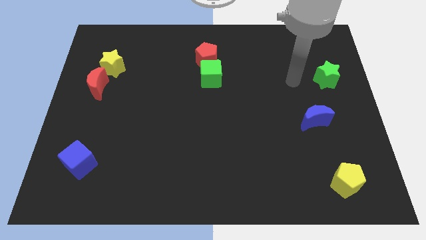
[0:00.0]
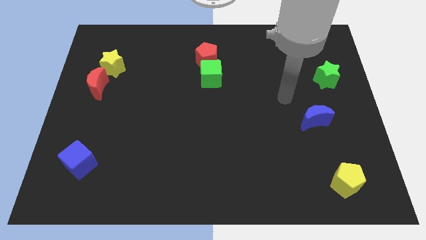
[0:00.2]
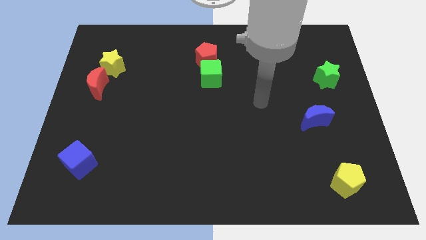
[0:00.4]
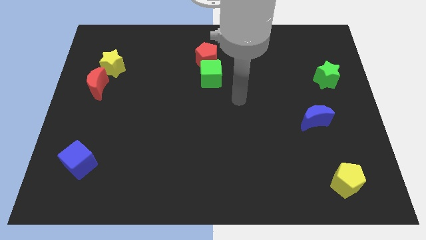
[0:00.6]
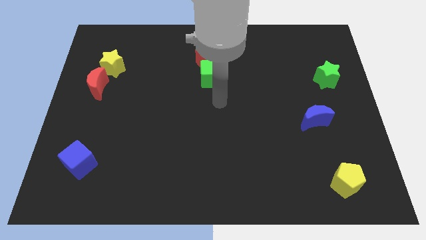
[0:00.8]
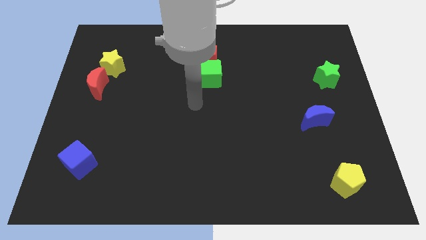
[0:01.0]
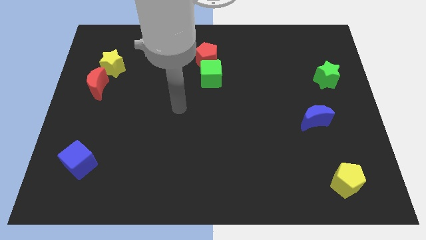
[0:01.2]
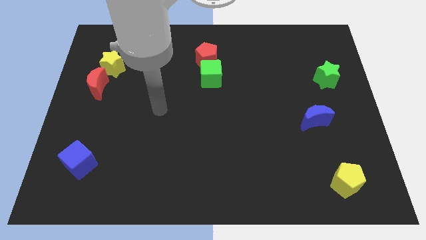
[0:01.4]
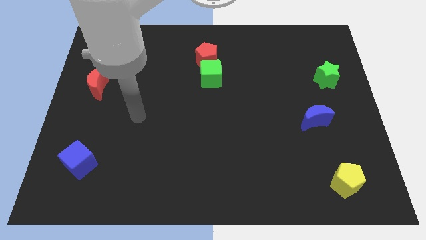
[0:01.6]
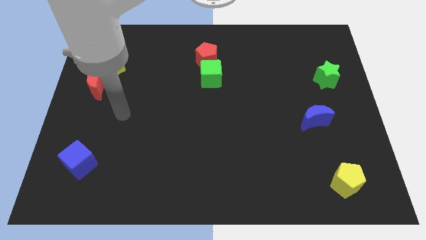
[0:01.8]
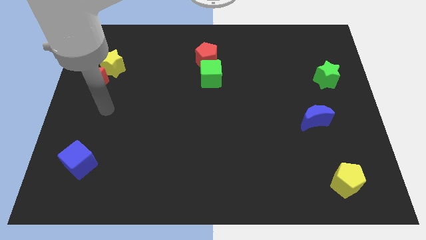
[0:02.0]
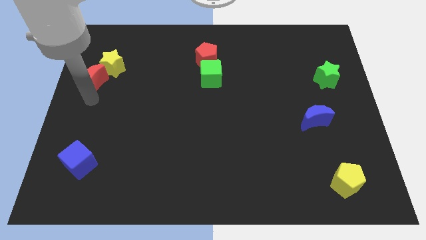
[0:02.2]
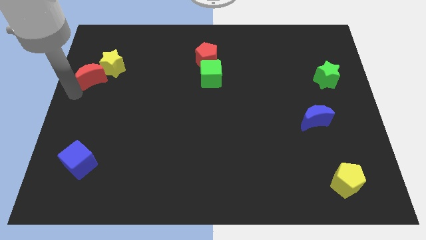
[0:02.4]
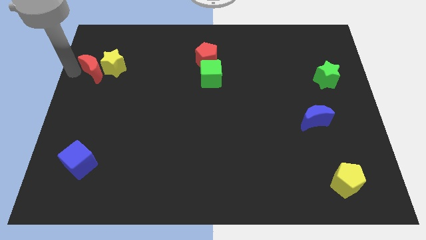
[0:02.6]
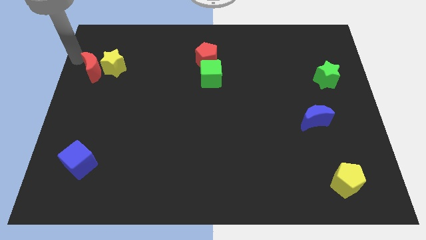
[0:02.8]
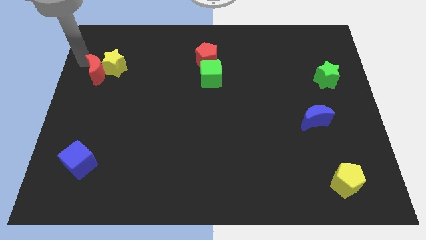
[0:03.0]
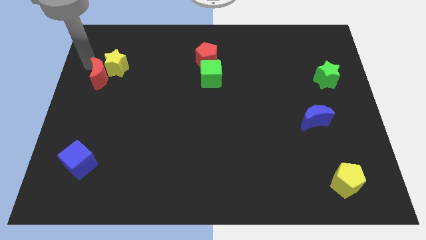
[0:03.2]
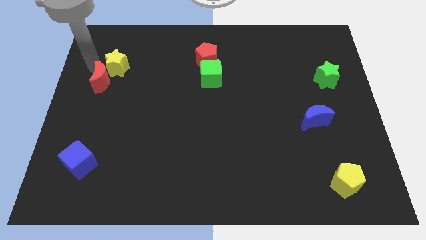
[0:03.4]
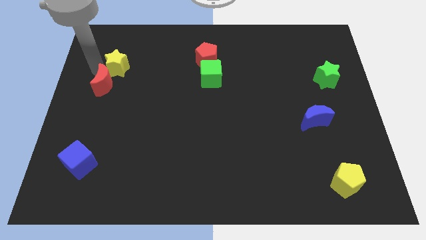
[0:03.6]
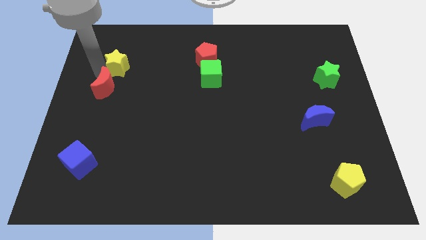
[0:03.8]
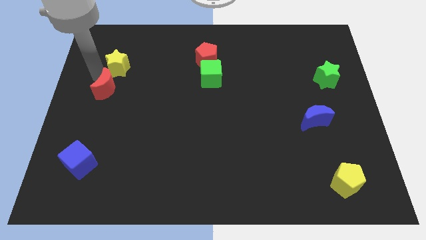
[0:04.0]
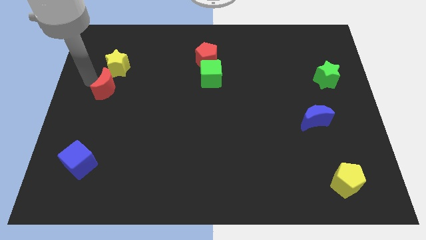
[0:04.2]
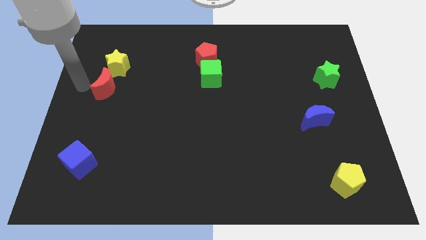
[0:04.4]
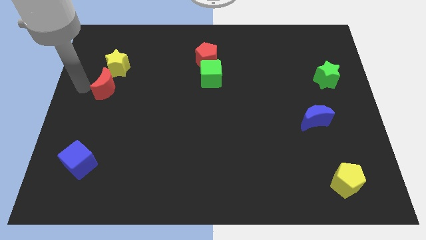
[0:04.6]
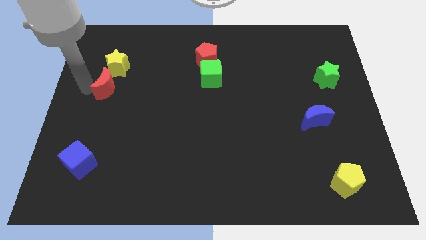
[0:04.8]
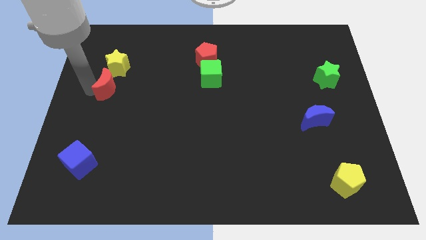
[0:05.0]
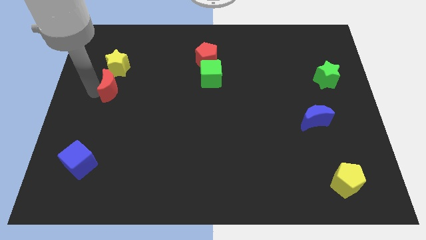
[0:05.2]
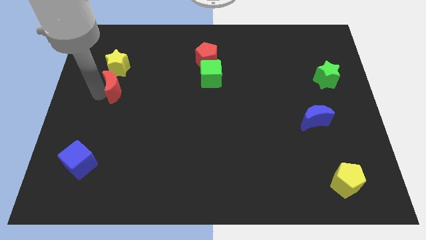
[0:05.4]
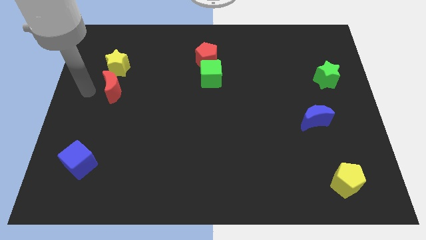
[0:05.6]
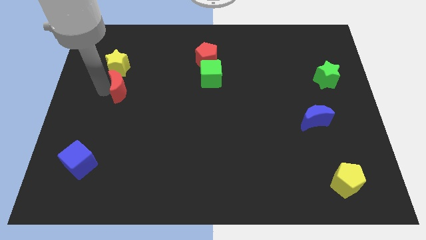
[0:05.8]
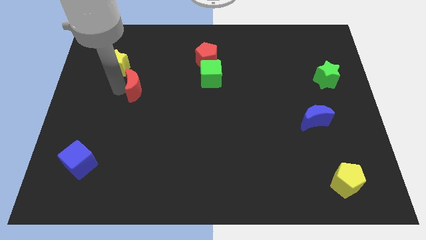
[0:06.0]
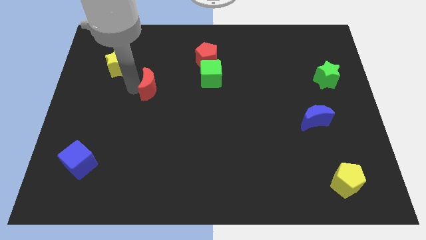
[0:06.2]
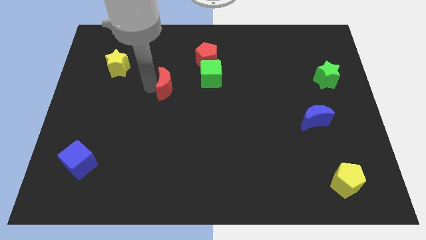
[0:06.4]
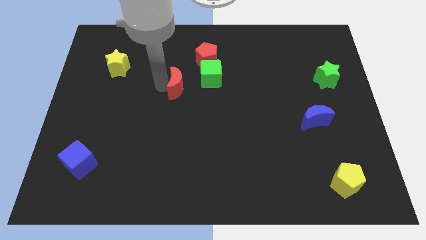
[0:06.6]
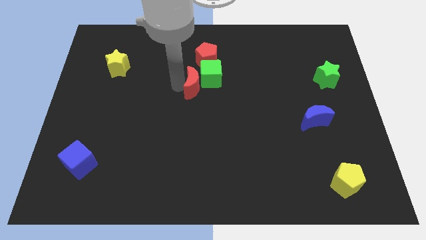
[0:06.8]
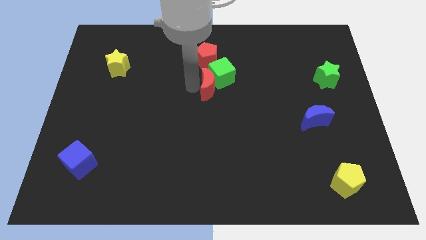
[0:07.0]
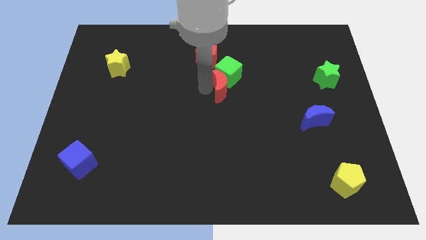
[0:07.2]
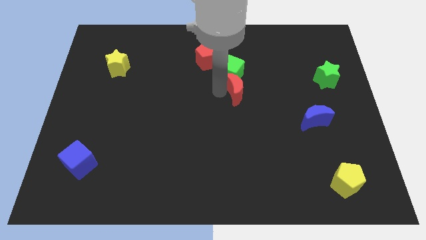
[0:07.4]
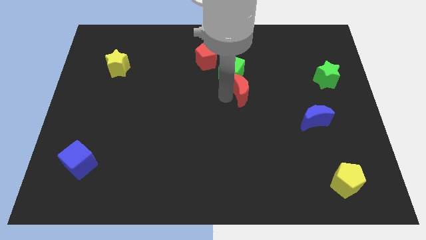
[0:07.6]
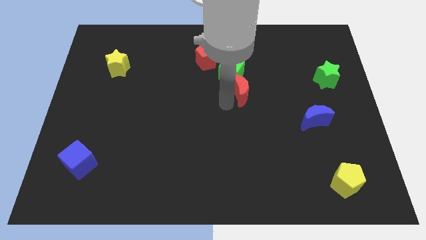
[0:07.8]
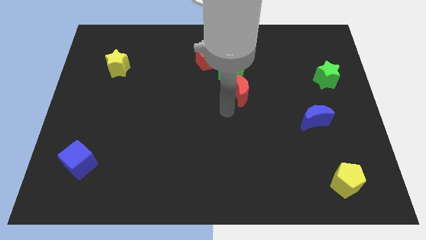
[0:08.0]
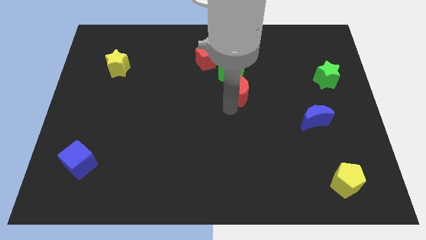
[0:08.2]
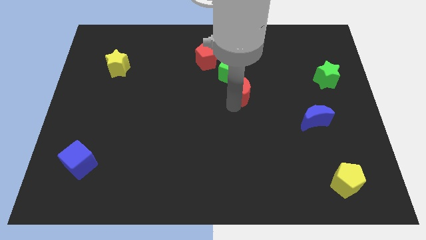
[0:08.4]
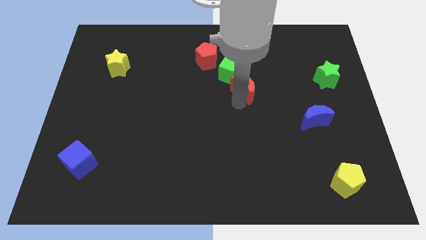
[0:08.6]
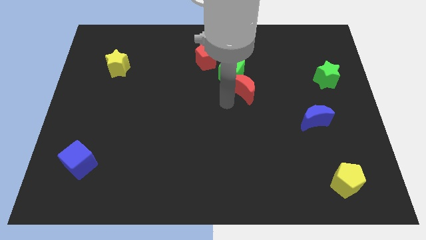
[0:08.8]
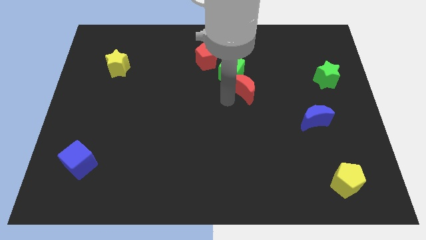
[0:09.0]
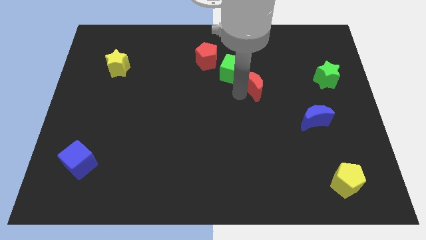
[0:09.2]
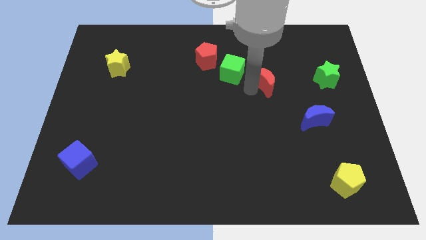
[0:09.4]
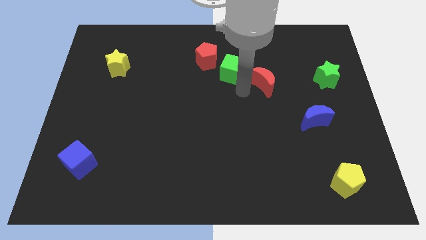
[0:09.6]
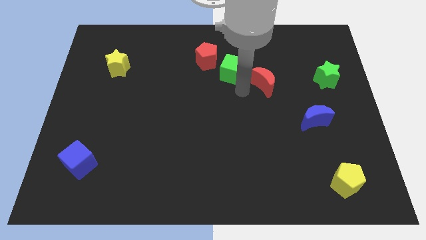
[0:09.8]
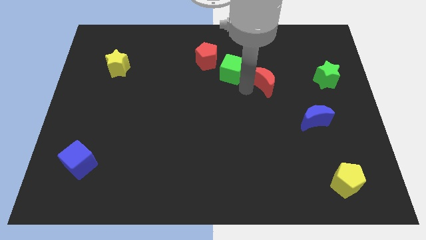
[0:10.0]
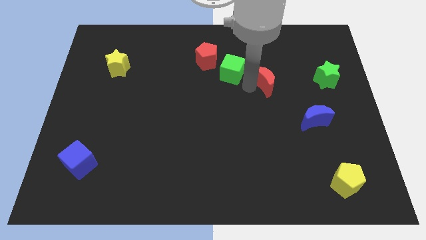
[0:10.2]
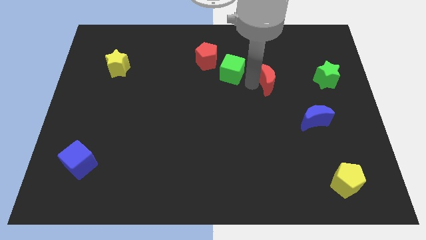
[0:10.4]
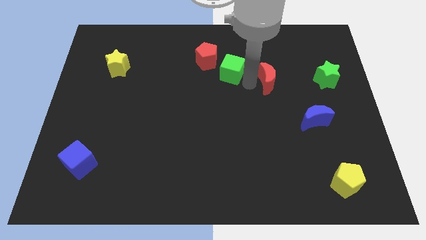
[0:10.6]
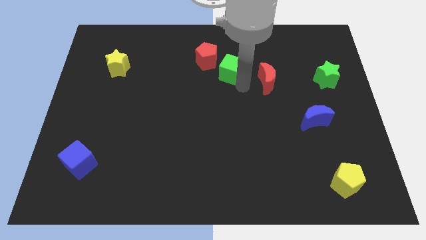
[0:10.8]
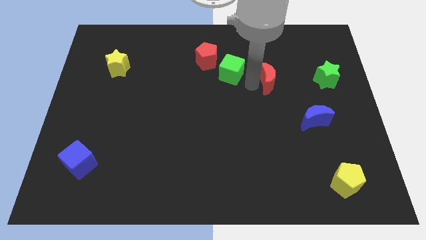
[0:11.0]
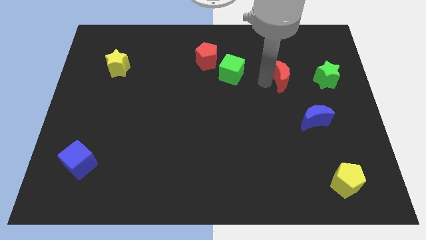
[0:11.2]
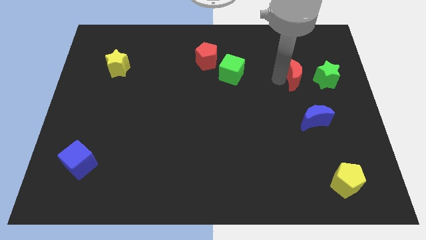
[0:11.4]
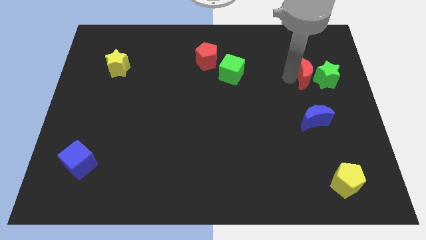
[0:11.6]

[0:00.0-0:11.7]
slide the red moon next to the green star
